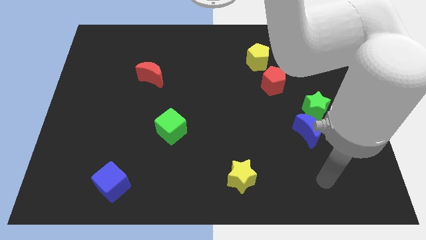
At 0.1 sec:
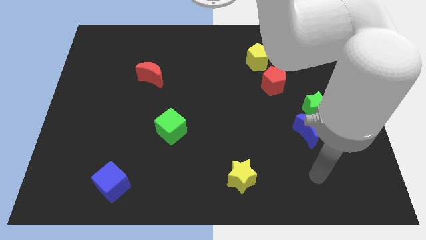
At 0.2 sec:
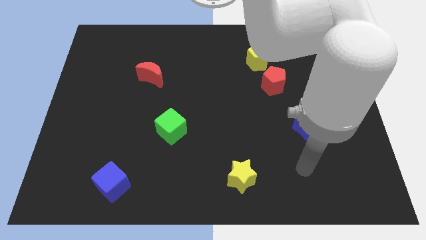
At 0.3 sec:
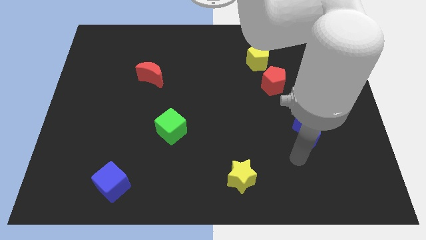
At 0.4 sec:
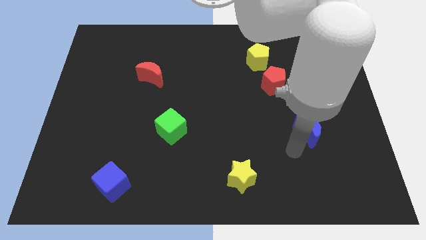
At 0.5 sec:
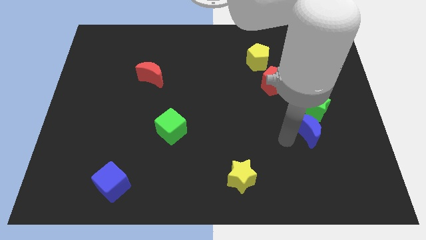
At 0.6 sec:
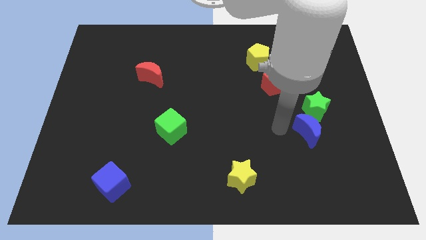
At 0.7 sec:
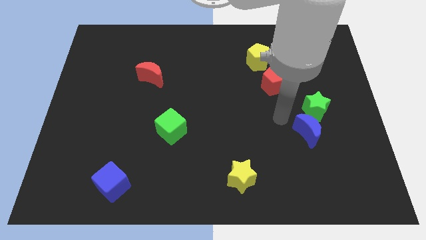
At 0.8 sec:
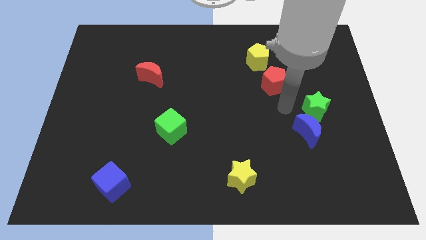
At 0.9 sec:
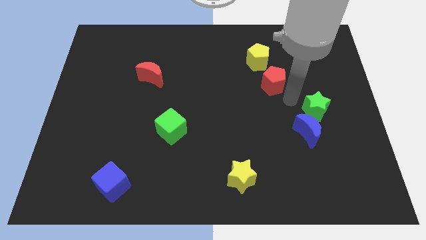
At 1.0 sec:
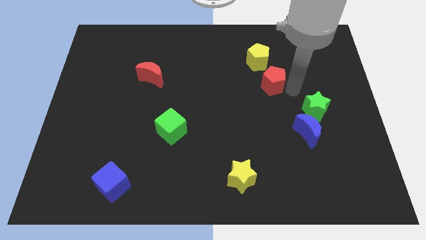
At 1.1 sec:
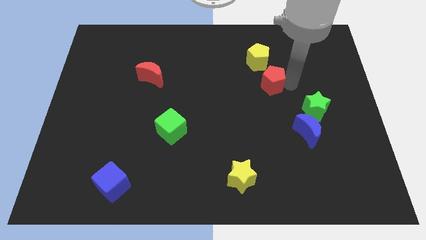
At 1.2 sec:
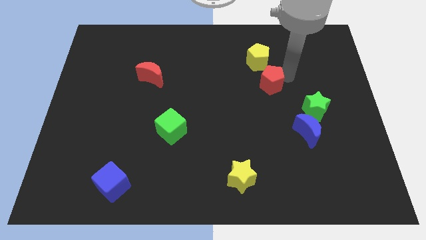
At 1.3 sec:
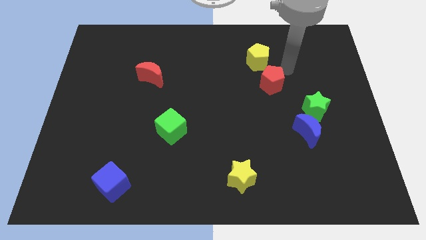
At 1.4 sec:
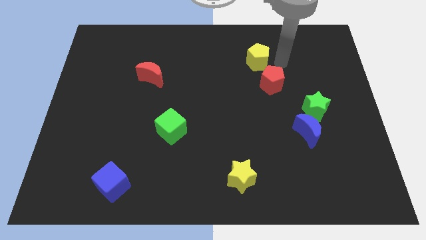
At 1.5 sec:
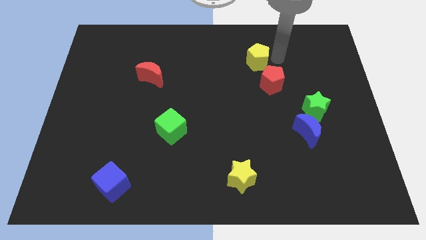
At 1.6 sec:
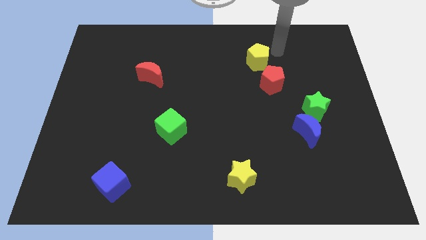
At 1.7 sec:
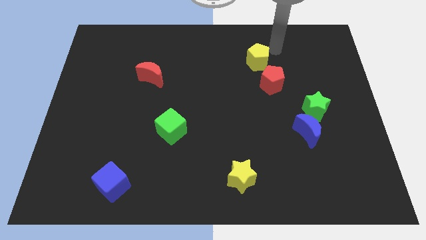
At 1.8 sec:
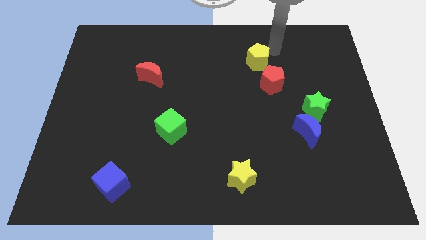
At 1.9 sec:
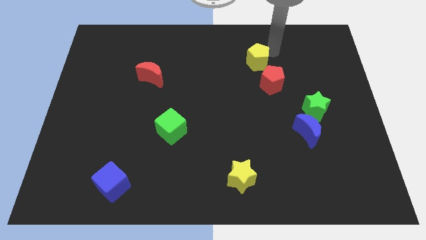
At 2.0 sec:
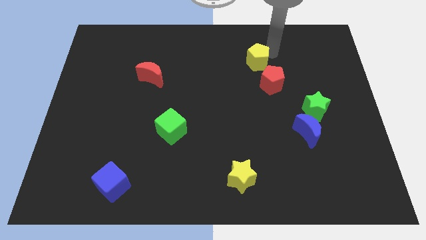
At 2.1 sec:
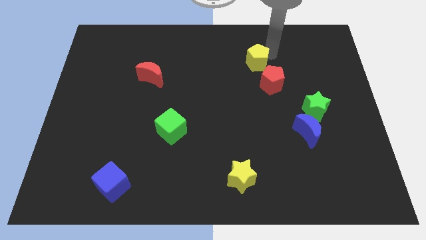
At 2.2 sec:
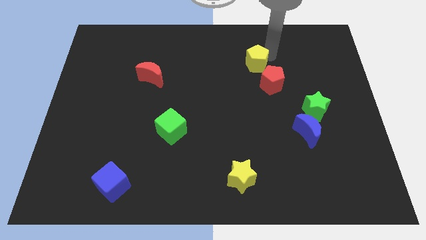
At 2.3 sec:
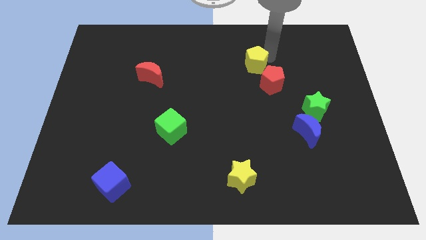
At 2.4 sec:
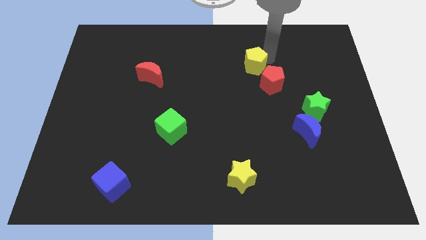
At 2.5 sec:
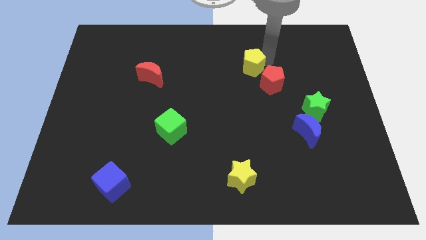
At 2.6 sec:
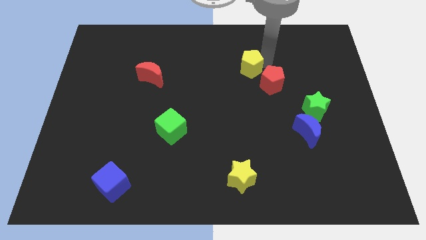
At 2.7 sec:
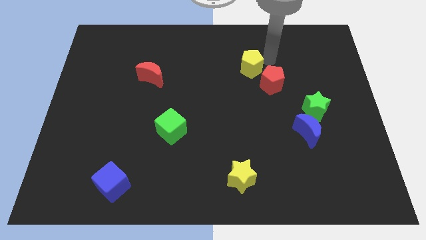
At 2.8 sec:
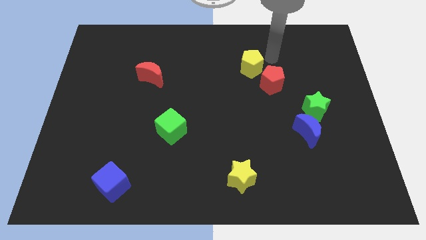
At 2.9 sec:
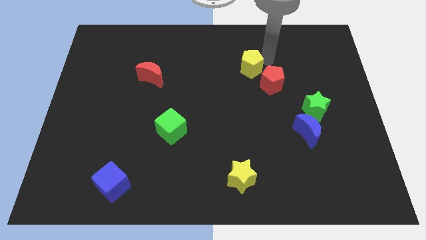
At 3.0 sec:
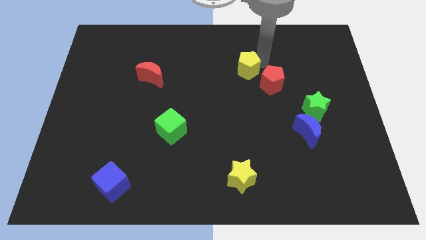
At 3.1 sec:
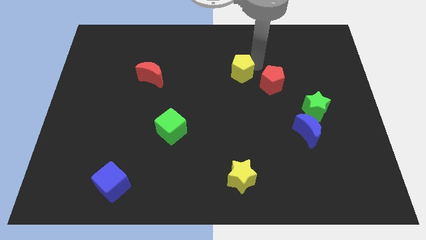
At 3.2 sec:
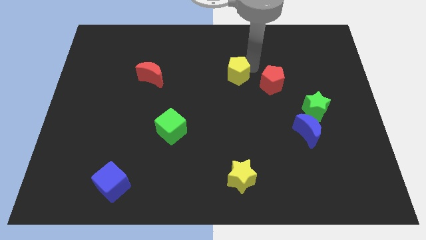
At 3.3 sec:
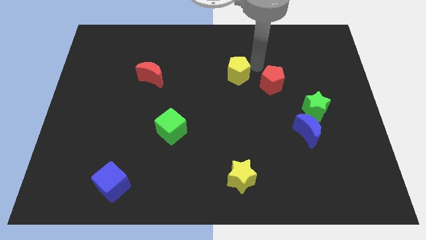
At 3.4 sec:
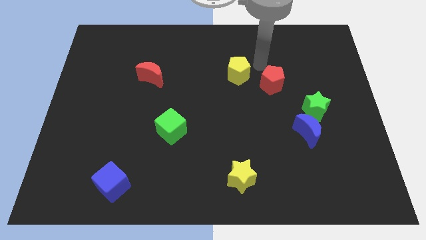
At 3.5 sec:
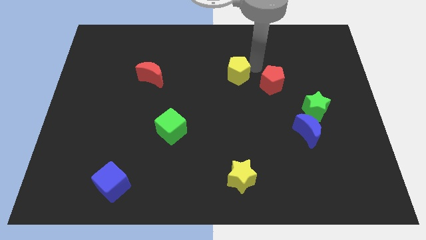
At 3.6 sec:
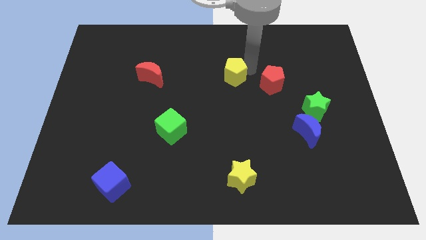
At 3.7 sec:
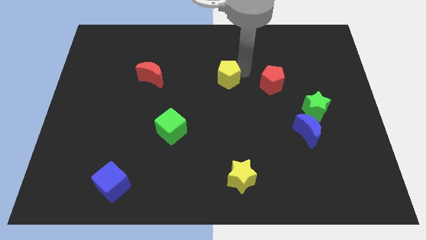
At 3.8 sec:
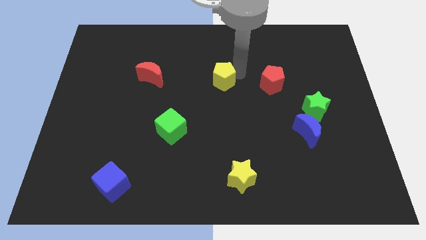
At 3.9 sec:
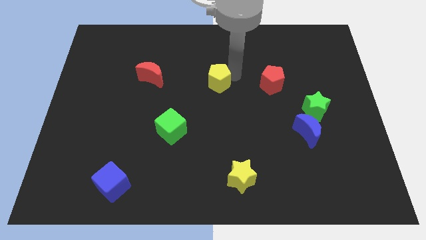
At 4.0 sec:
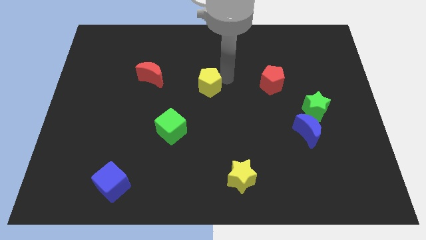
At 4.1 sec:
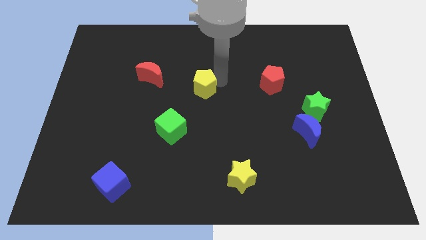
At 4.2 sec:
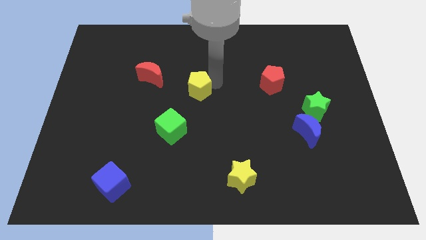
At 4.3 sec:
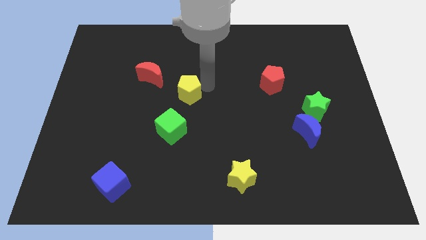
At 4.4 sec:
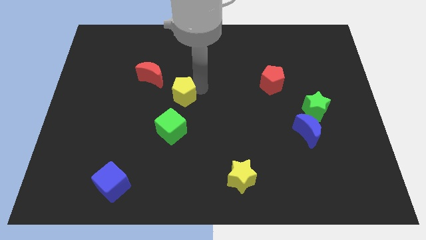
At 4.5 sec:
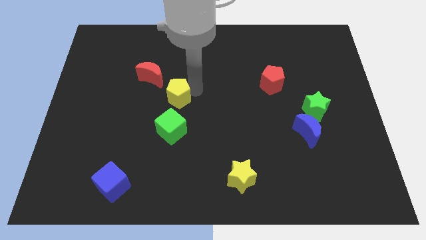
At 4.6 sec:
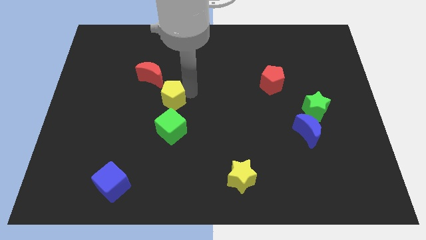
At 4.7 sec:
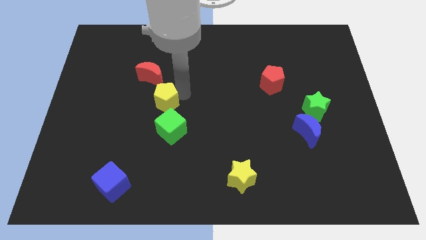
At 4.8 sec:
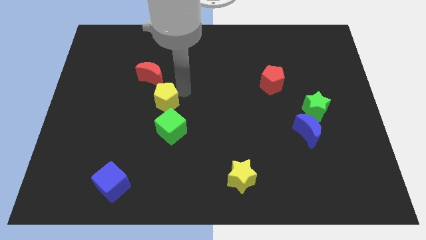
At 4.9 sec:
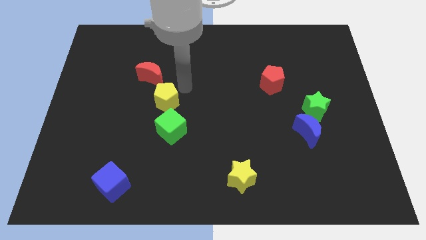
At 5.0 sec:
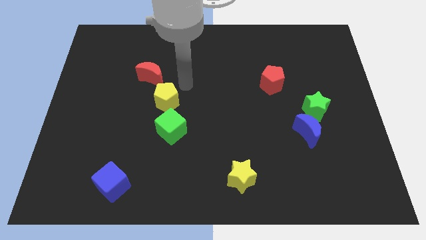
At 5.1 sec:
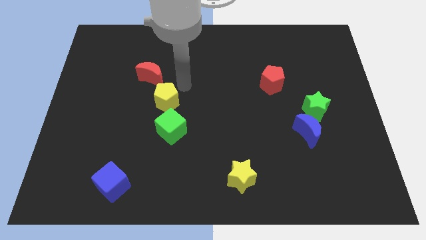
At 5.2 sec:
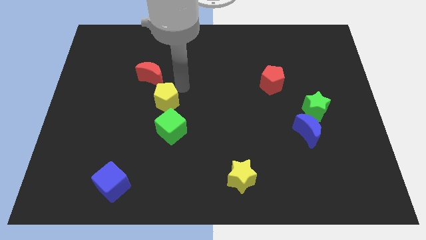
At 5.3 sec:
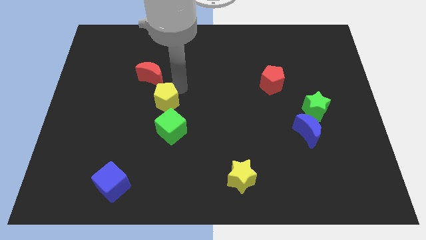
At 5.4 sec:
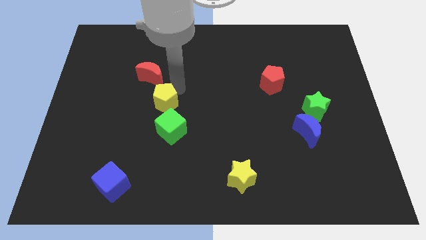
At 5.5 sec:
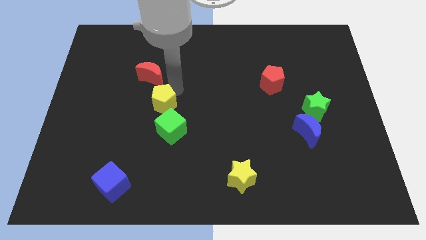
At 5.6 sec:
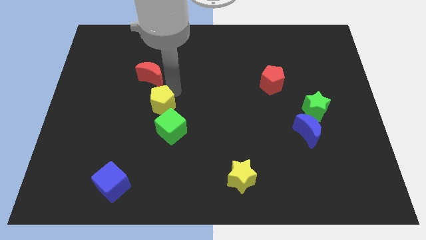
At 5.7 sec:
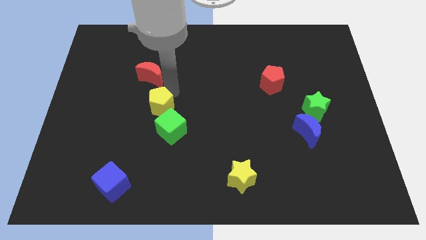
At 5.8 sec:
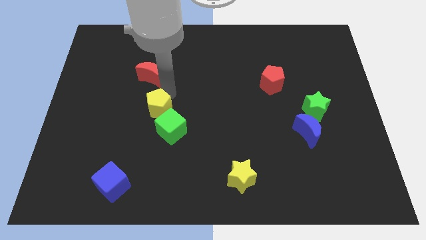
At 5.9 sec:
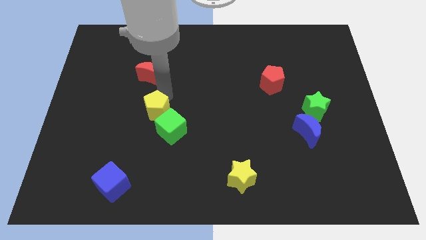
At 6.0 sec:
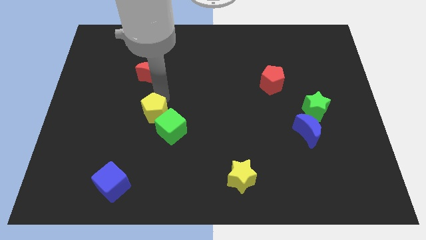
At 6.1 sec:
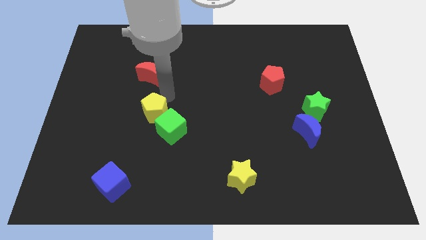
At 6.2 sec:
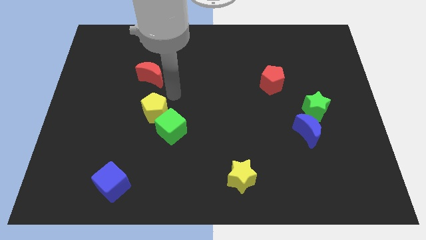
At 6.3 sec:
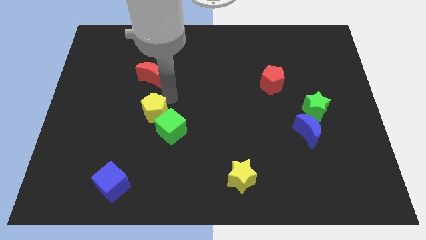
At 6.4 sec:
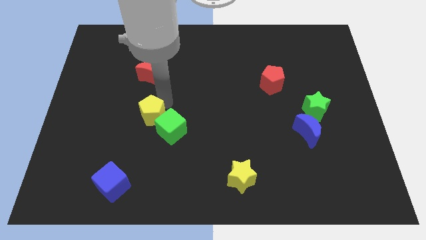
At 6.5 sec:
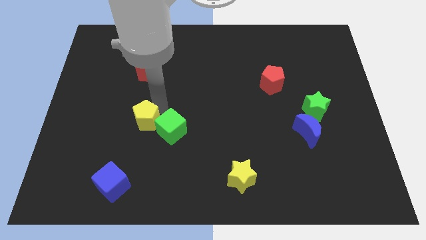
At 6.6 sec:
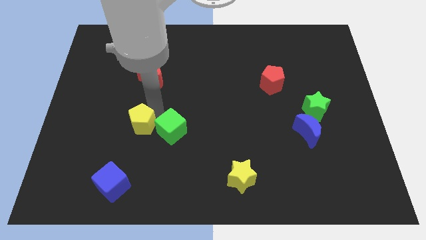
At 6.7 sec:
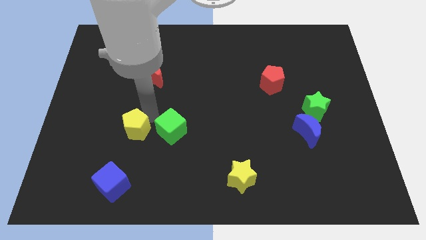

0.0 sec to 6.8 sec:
push the yellow pentagon to the top side of the blue cube
